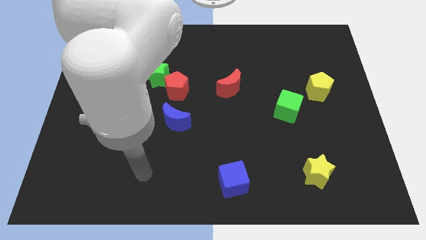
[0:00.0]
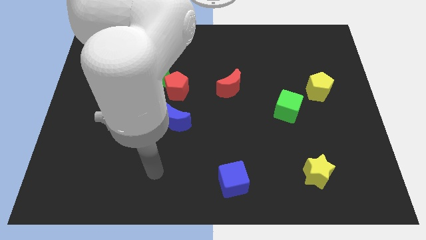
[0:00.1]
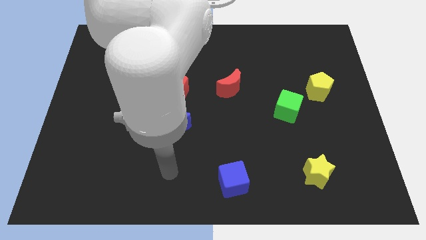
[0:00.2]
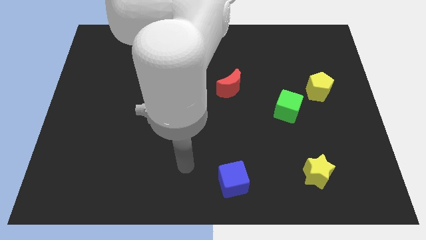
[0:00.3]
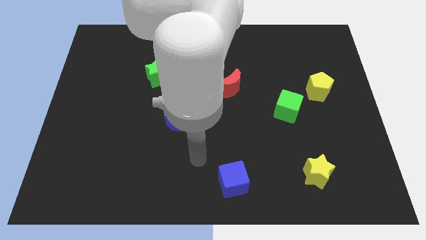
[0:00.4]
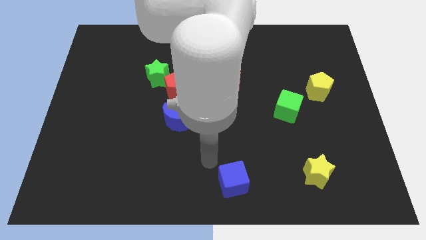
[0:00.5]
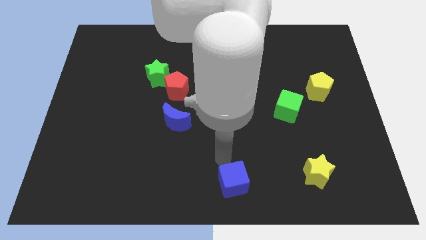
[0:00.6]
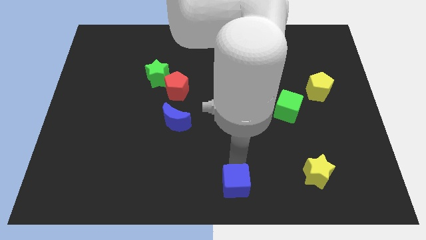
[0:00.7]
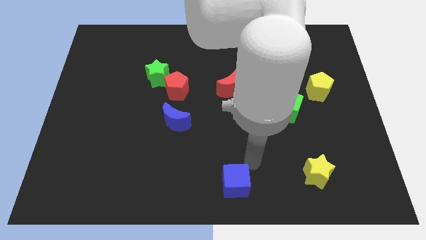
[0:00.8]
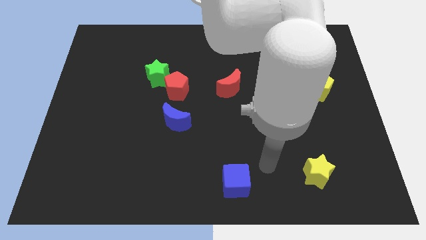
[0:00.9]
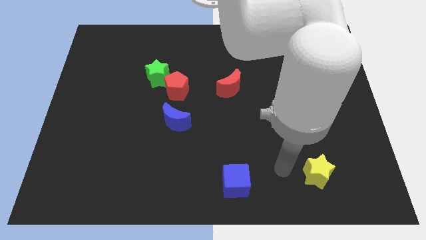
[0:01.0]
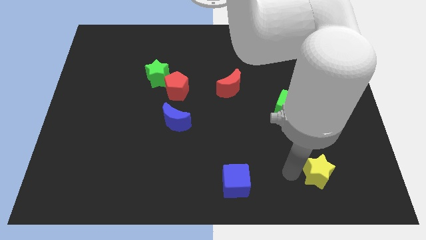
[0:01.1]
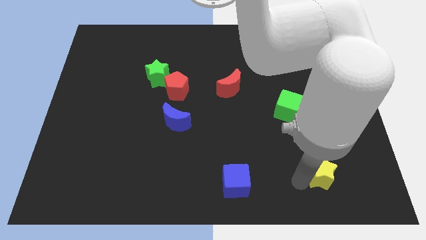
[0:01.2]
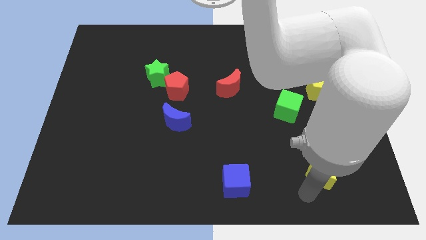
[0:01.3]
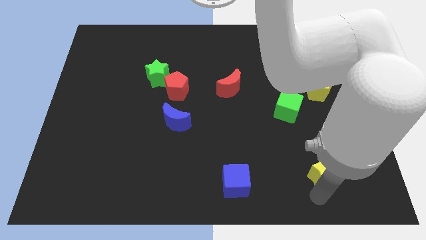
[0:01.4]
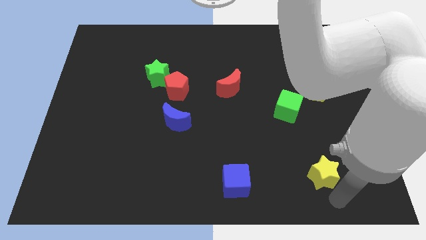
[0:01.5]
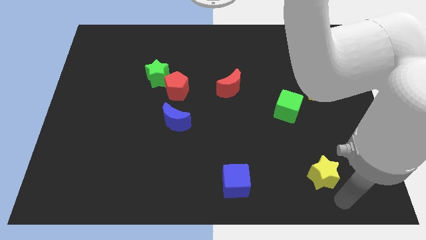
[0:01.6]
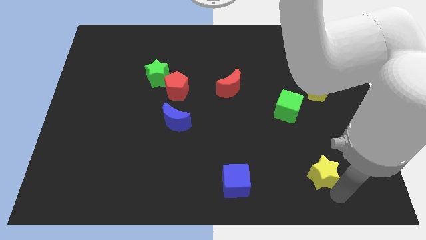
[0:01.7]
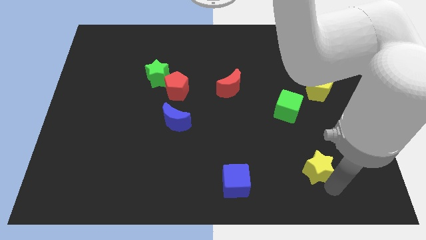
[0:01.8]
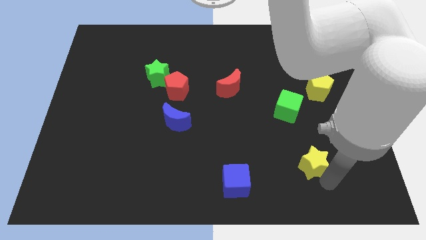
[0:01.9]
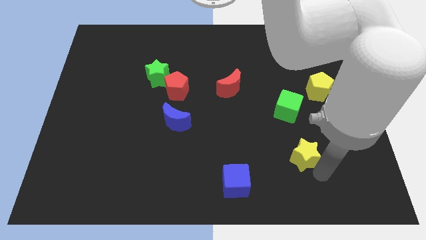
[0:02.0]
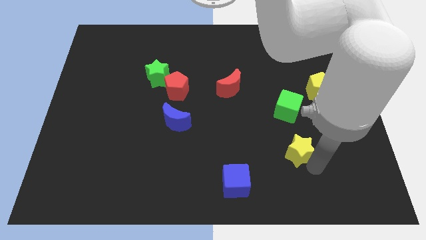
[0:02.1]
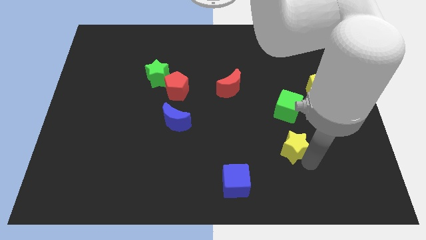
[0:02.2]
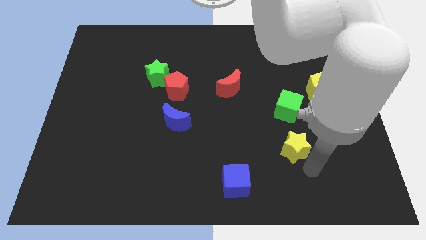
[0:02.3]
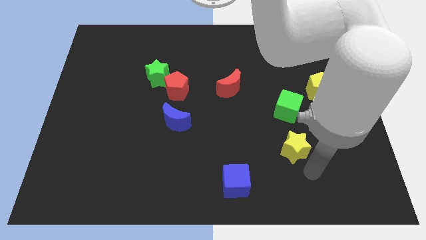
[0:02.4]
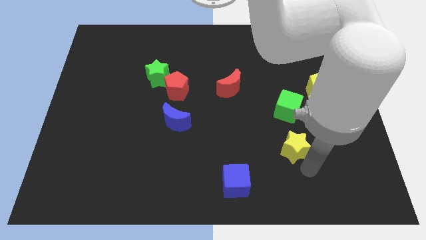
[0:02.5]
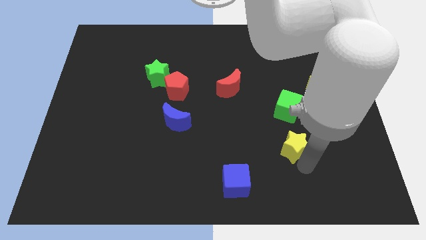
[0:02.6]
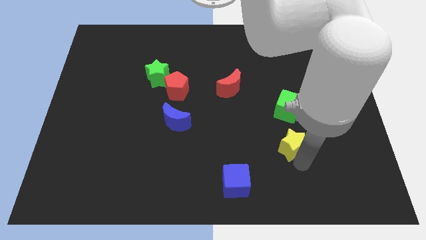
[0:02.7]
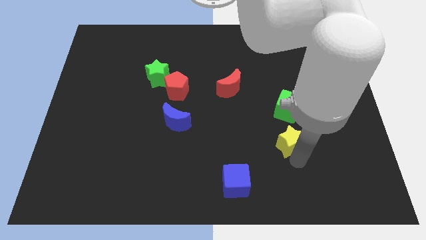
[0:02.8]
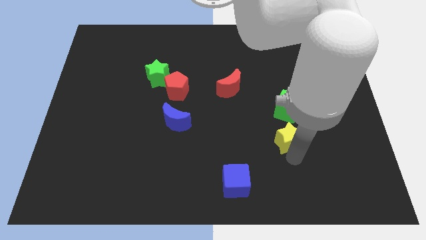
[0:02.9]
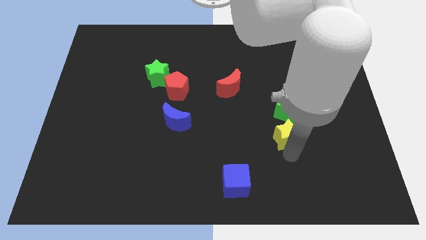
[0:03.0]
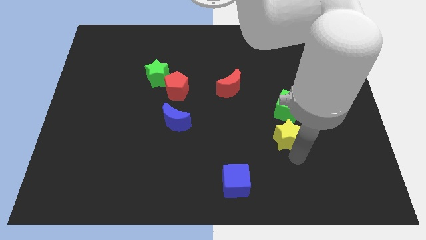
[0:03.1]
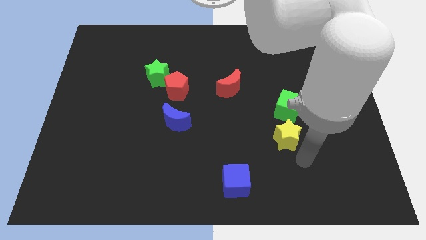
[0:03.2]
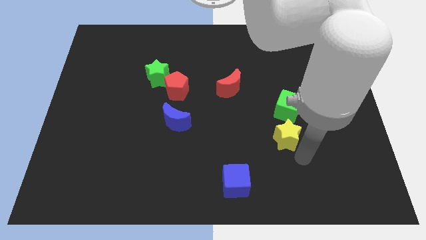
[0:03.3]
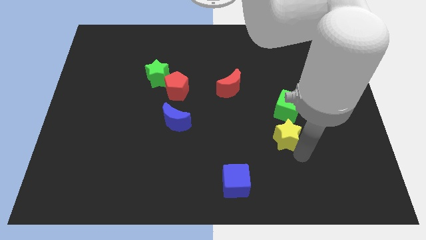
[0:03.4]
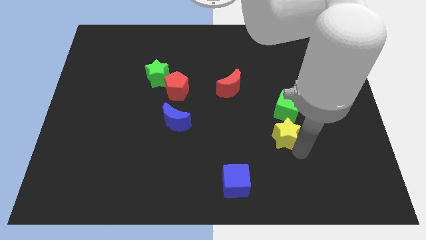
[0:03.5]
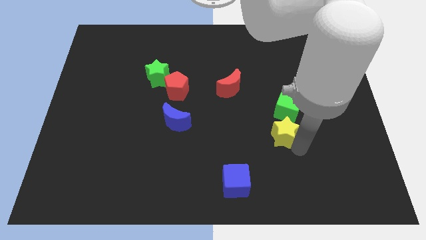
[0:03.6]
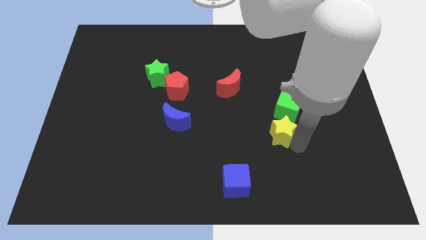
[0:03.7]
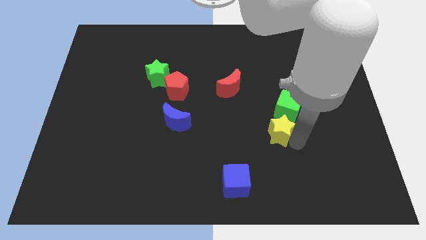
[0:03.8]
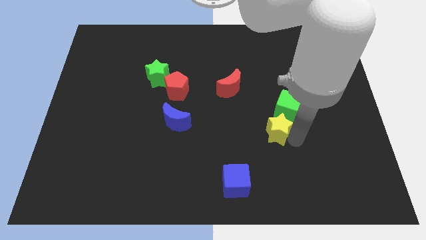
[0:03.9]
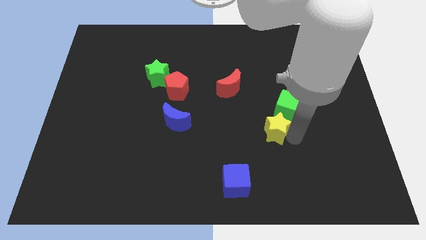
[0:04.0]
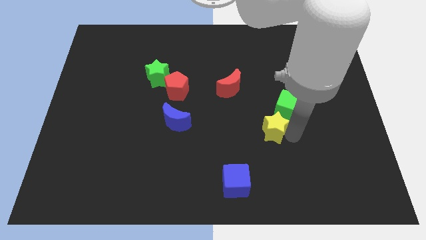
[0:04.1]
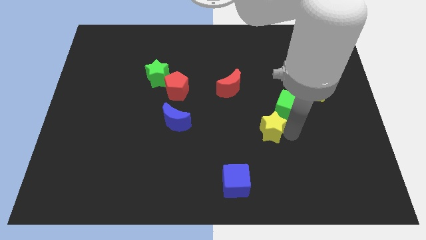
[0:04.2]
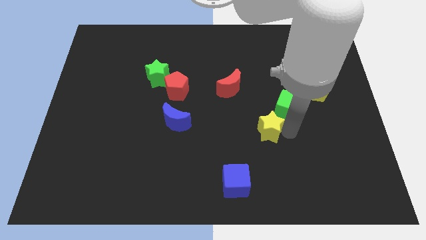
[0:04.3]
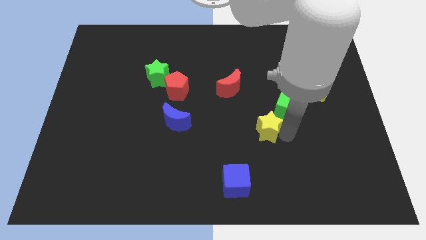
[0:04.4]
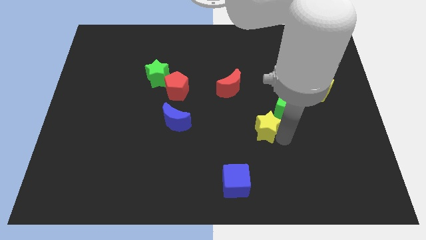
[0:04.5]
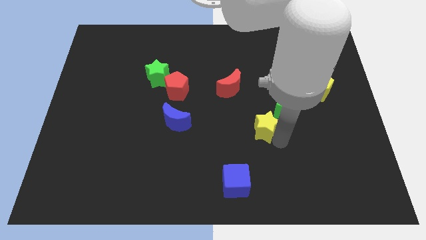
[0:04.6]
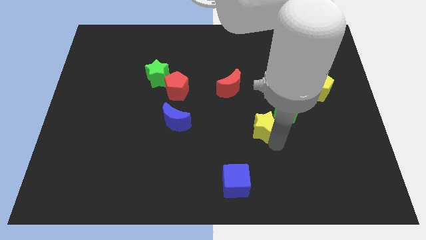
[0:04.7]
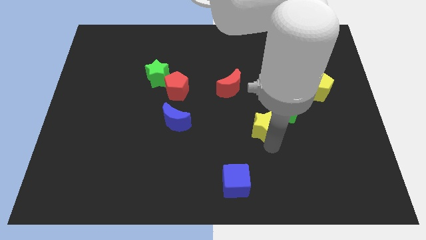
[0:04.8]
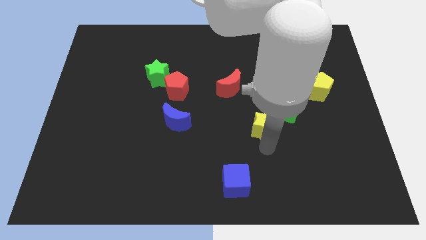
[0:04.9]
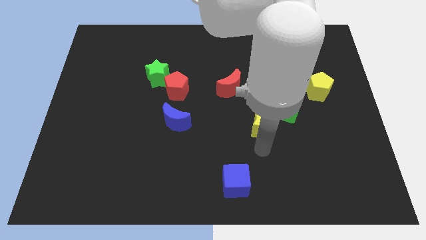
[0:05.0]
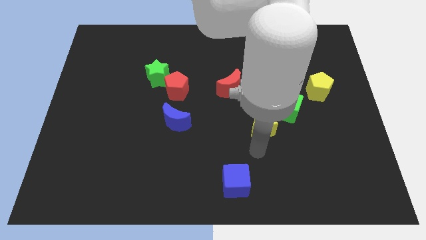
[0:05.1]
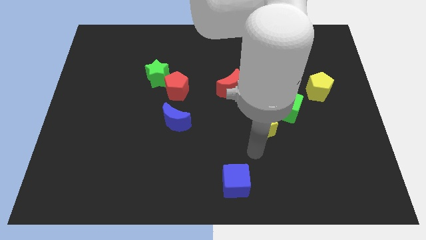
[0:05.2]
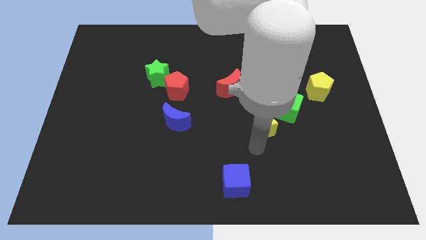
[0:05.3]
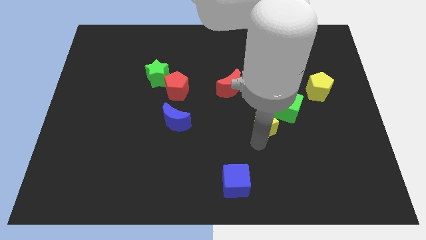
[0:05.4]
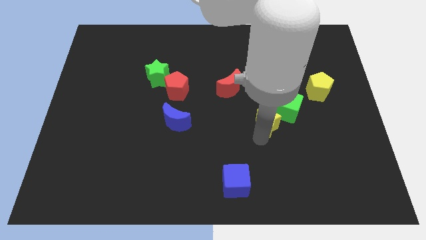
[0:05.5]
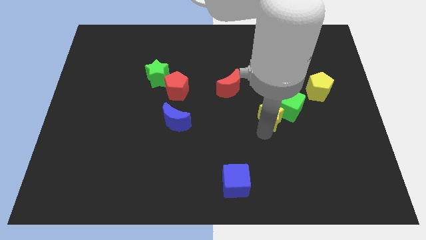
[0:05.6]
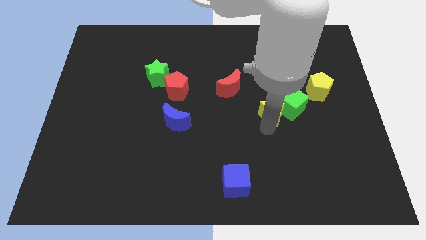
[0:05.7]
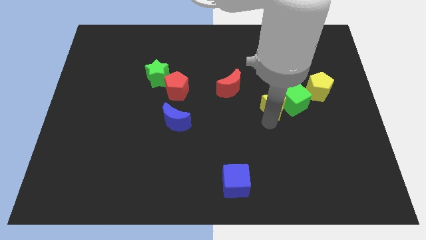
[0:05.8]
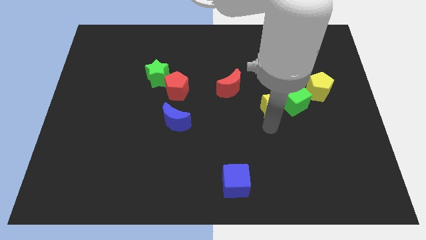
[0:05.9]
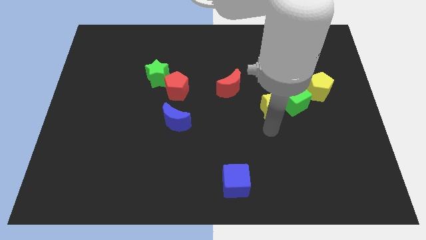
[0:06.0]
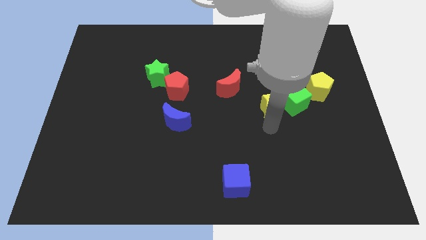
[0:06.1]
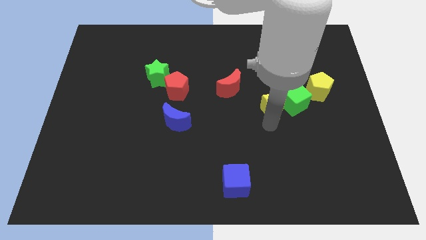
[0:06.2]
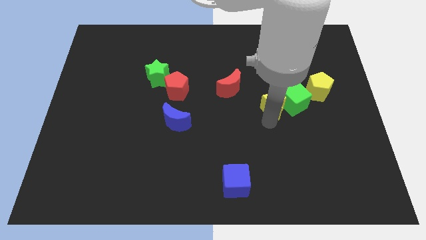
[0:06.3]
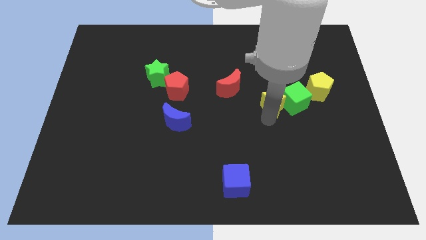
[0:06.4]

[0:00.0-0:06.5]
slide the yellow star just left of the yellow pentagon

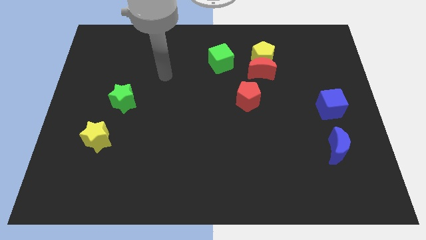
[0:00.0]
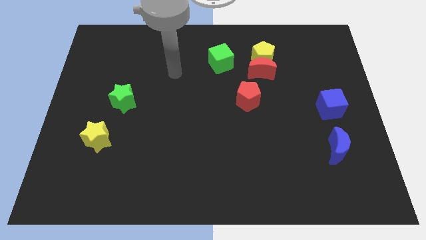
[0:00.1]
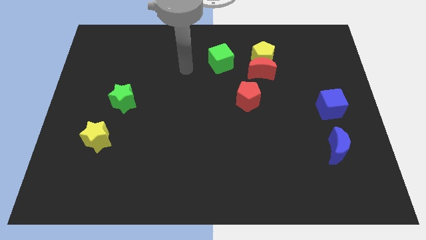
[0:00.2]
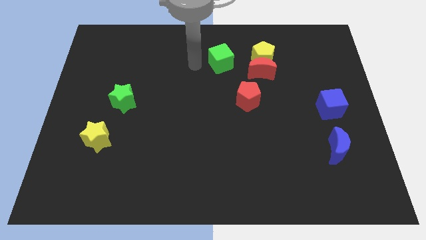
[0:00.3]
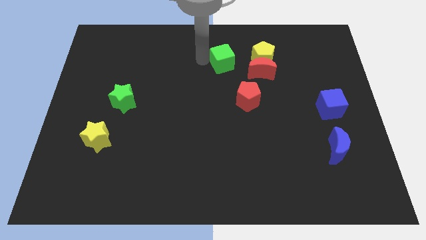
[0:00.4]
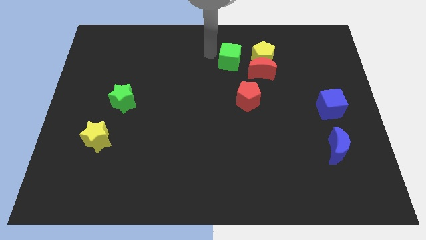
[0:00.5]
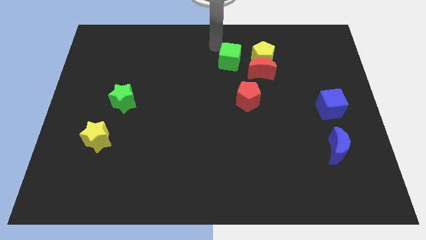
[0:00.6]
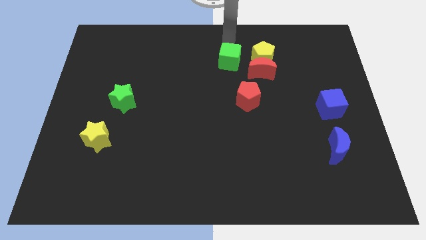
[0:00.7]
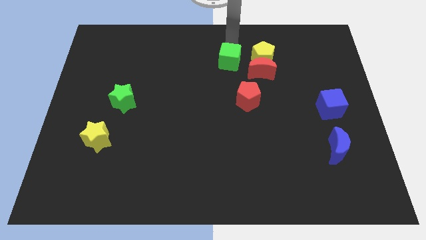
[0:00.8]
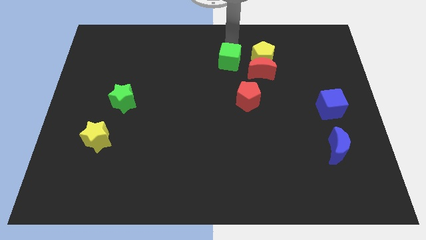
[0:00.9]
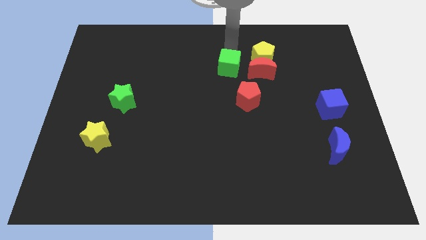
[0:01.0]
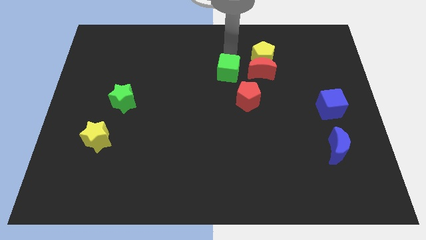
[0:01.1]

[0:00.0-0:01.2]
push the green cube to the top left of the red pentagon

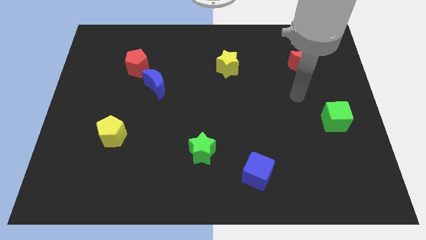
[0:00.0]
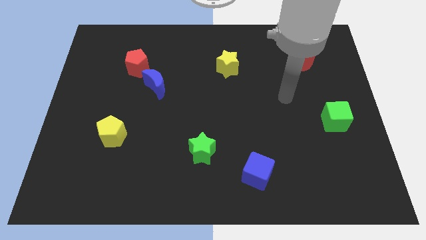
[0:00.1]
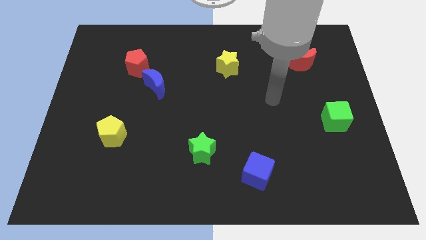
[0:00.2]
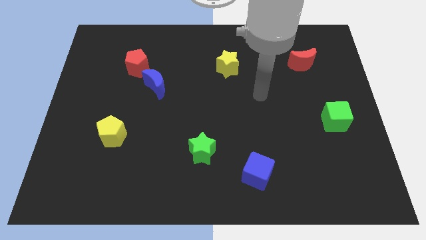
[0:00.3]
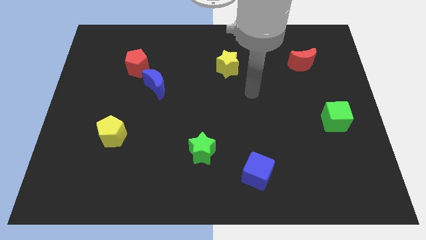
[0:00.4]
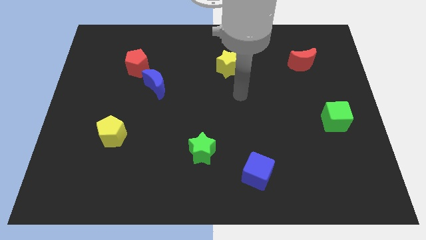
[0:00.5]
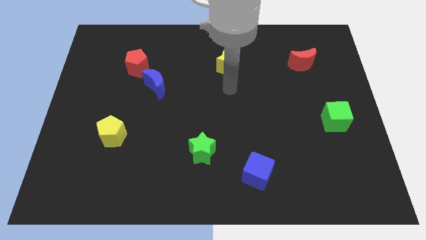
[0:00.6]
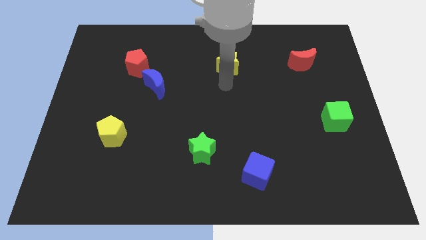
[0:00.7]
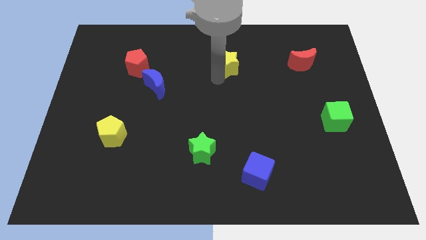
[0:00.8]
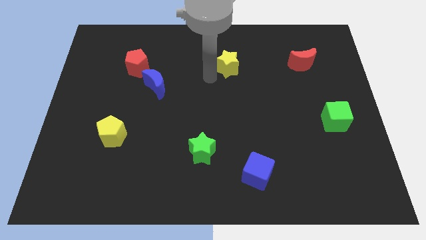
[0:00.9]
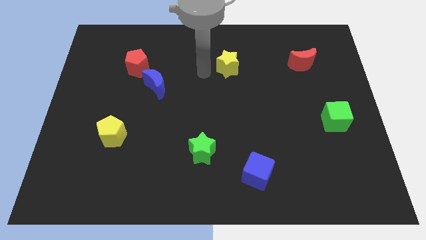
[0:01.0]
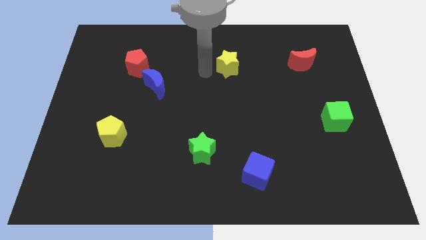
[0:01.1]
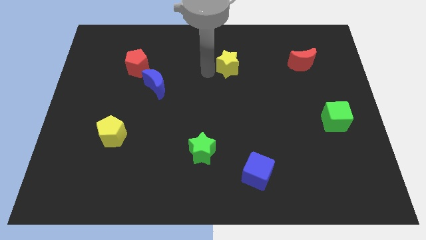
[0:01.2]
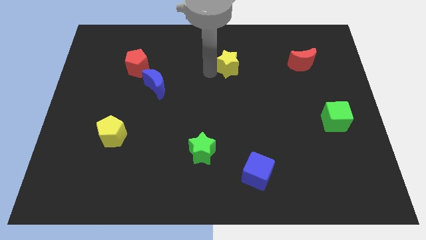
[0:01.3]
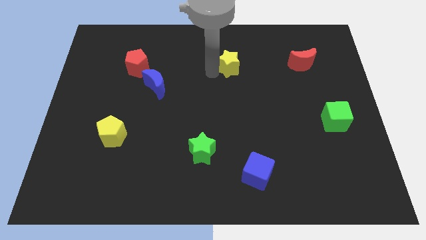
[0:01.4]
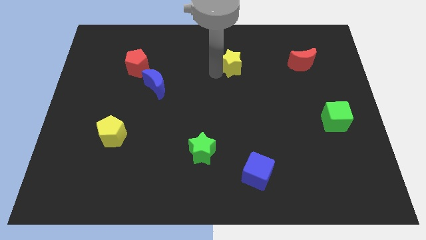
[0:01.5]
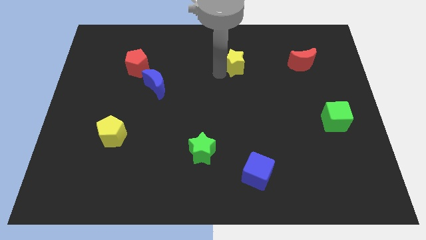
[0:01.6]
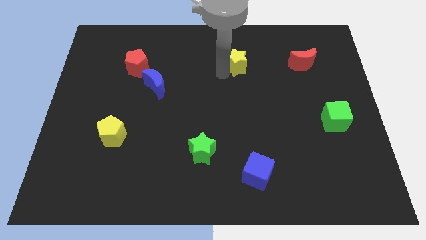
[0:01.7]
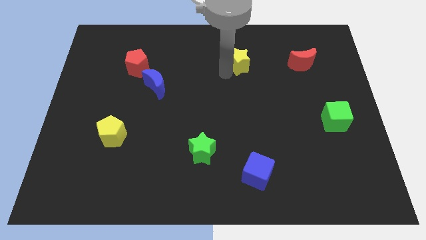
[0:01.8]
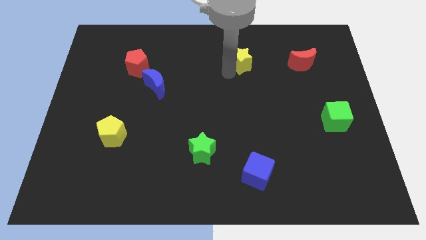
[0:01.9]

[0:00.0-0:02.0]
push the yellow star just left of the red moon
